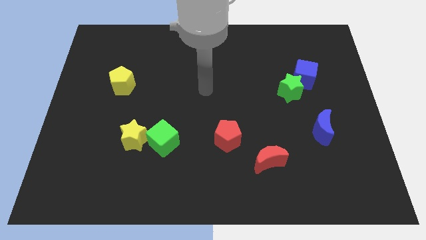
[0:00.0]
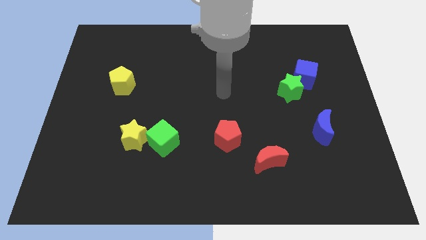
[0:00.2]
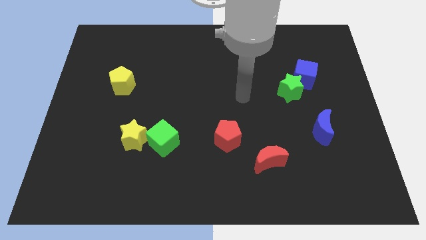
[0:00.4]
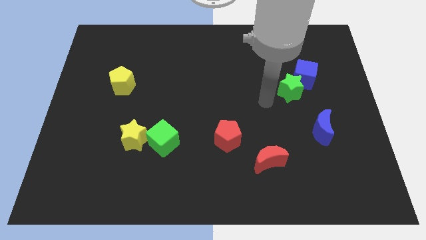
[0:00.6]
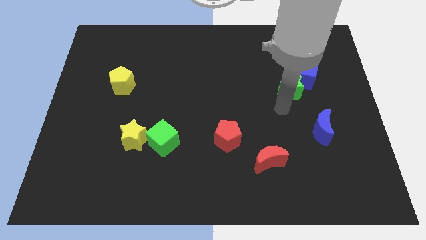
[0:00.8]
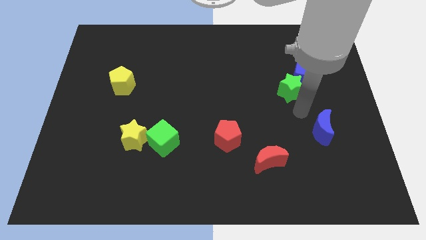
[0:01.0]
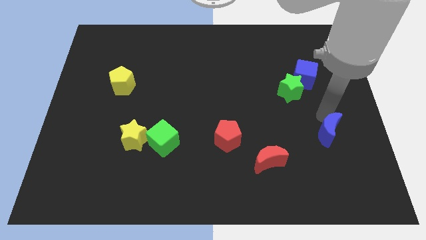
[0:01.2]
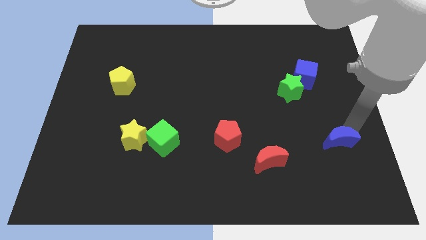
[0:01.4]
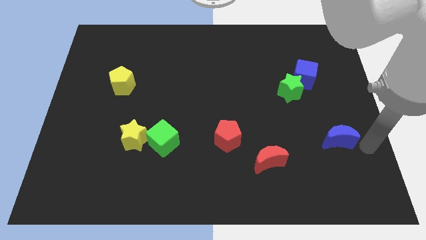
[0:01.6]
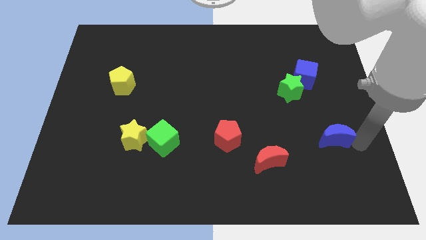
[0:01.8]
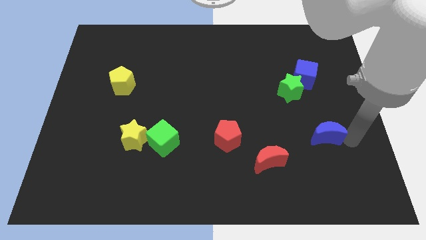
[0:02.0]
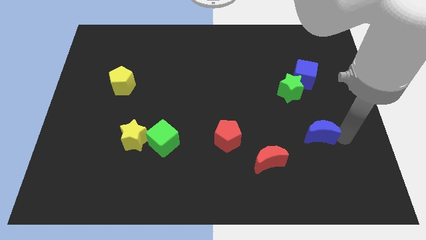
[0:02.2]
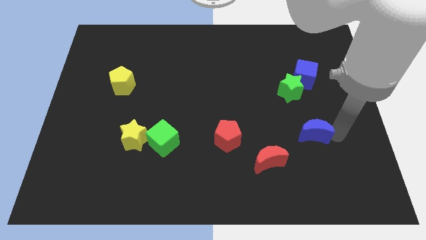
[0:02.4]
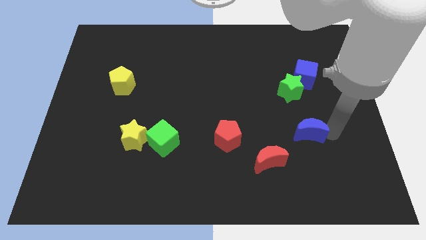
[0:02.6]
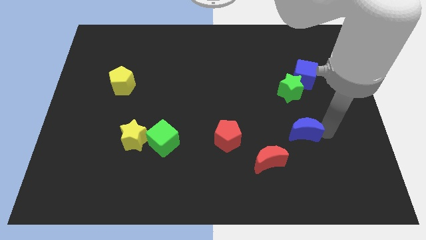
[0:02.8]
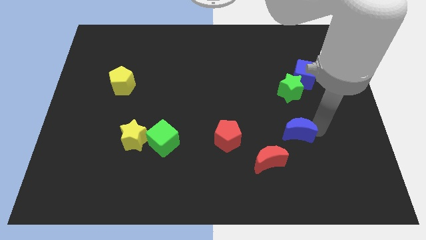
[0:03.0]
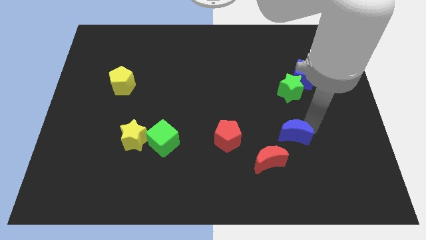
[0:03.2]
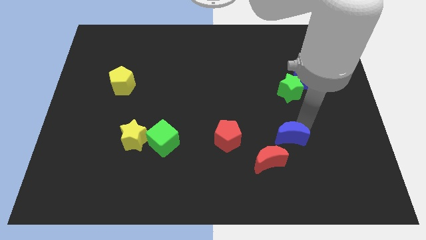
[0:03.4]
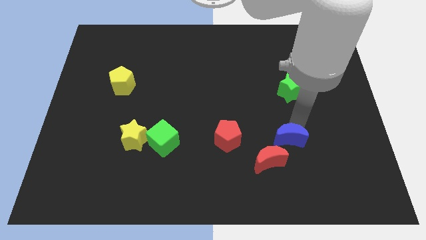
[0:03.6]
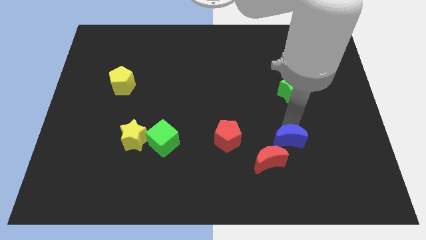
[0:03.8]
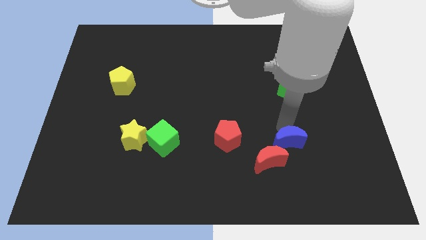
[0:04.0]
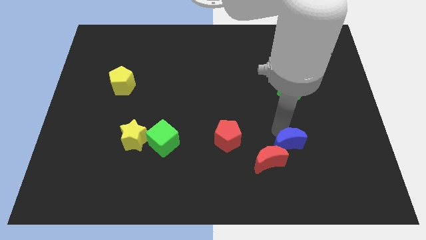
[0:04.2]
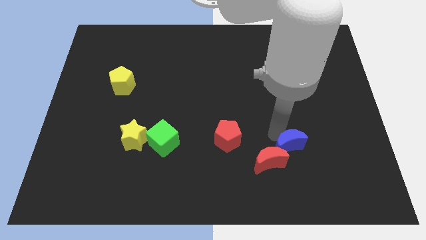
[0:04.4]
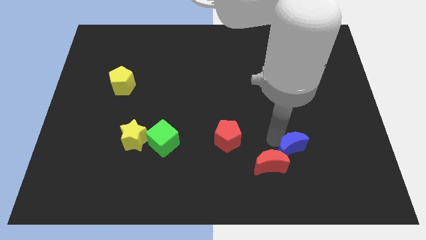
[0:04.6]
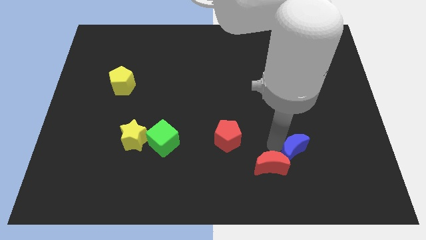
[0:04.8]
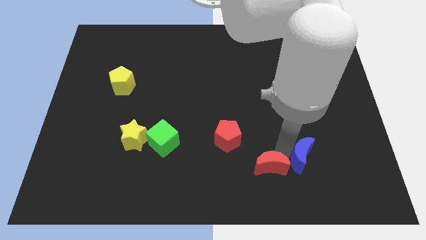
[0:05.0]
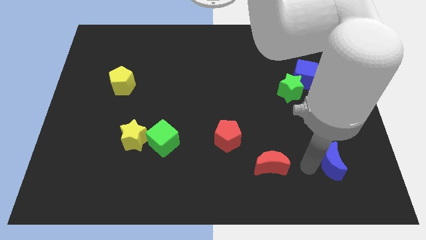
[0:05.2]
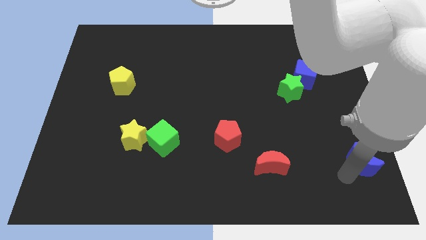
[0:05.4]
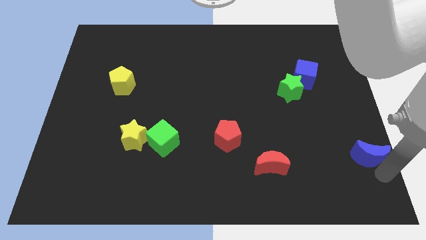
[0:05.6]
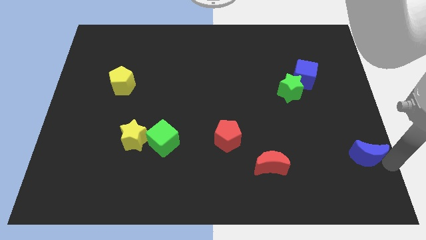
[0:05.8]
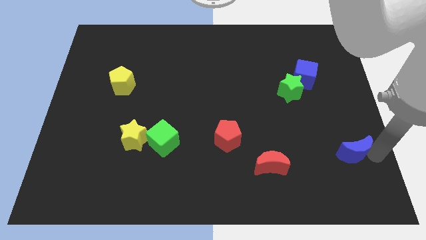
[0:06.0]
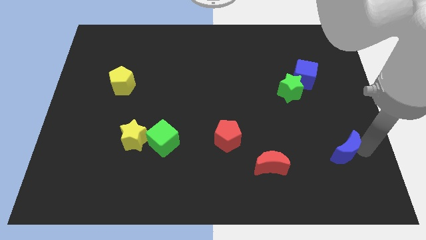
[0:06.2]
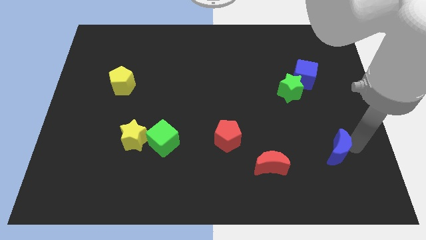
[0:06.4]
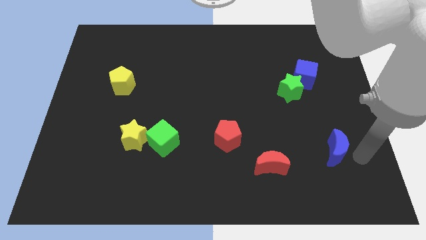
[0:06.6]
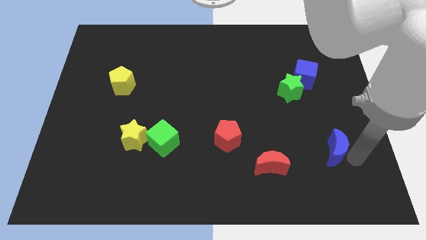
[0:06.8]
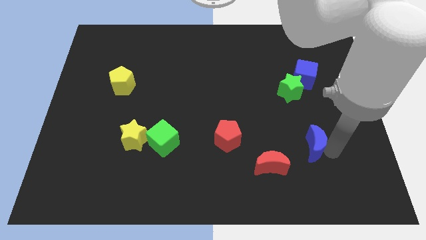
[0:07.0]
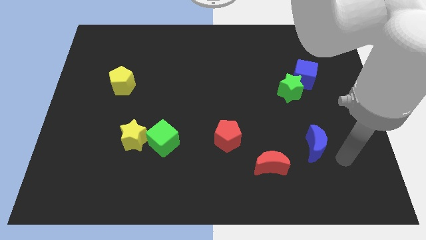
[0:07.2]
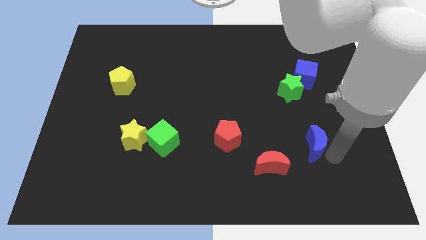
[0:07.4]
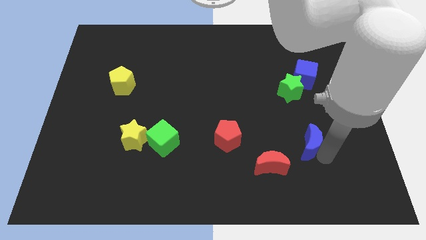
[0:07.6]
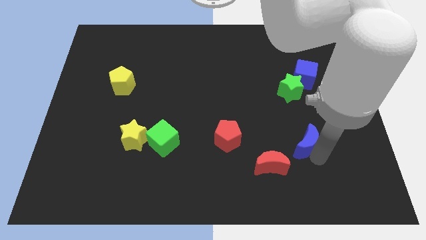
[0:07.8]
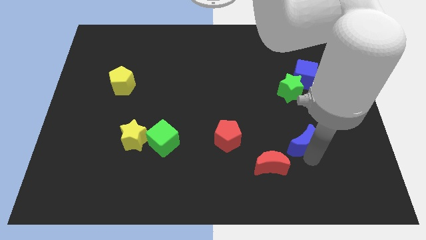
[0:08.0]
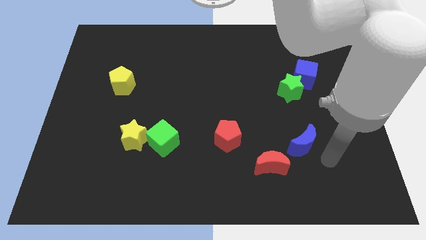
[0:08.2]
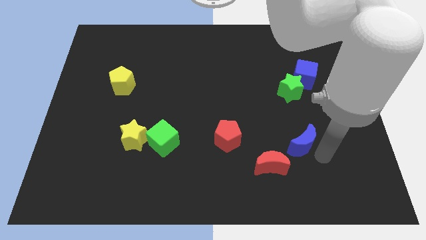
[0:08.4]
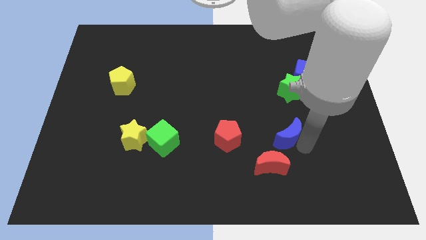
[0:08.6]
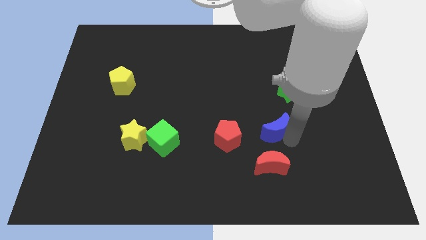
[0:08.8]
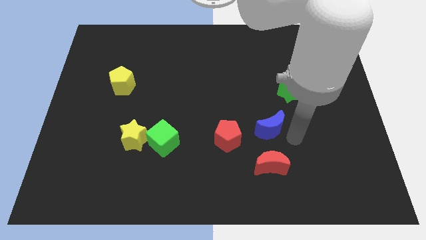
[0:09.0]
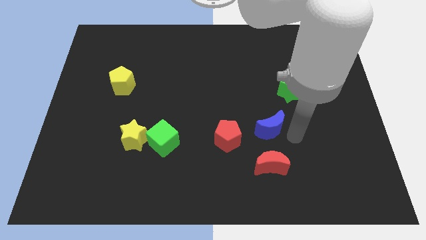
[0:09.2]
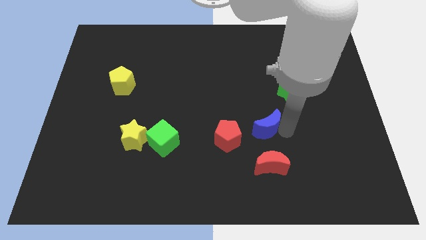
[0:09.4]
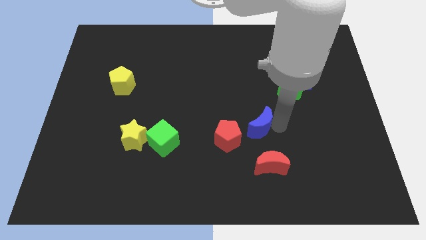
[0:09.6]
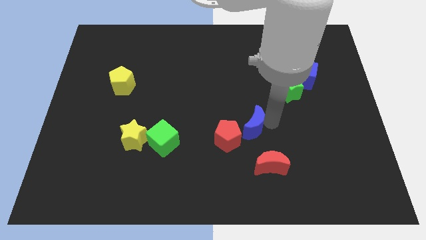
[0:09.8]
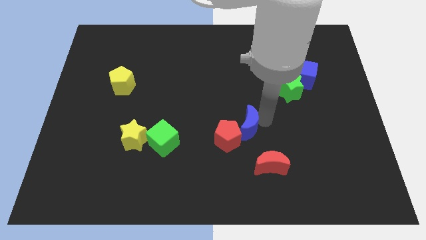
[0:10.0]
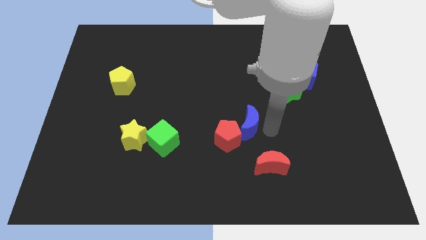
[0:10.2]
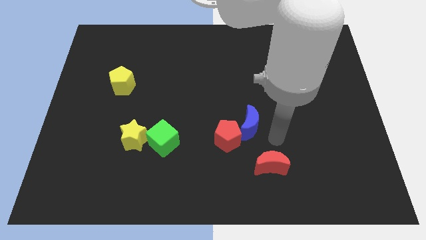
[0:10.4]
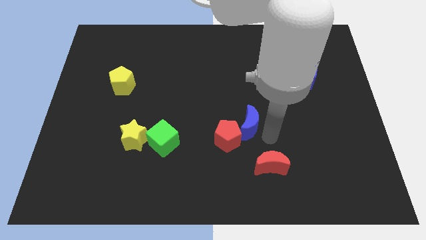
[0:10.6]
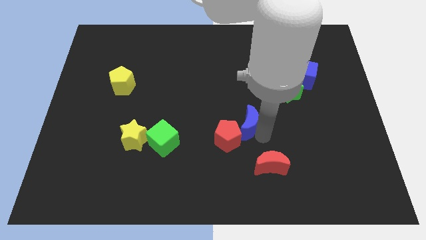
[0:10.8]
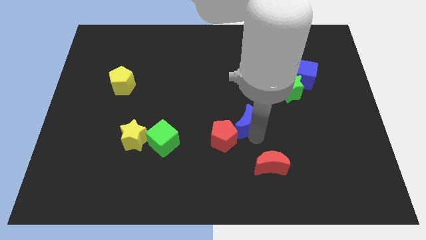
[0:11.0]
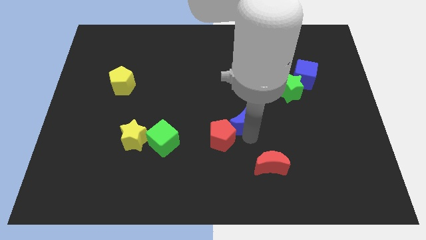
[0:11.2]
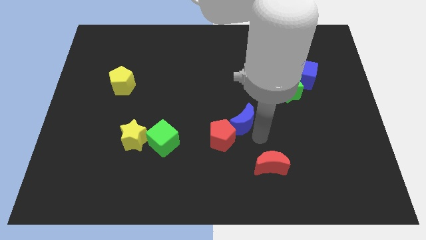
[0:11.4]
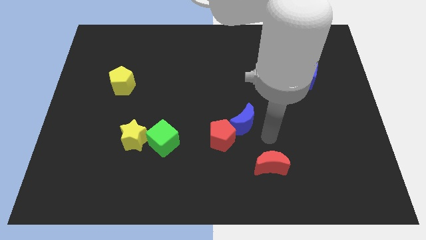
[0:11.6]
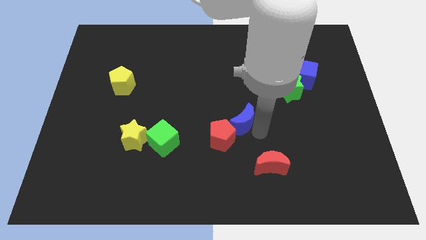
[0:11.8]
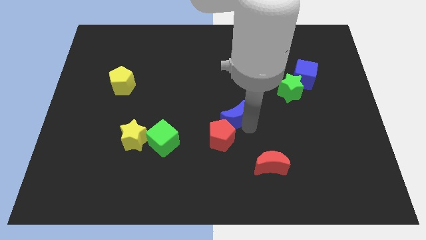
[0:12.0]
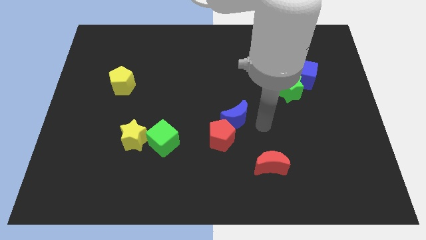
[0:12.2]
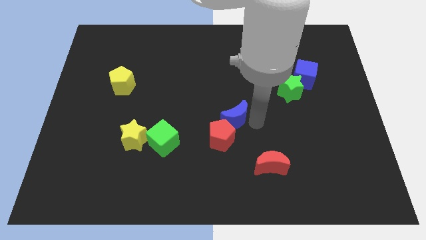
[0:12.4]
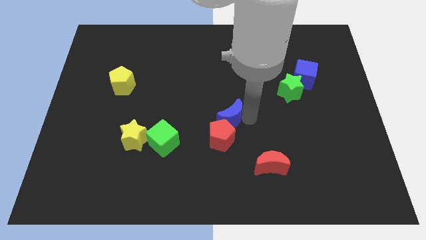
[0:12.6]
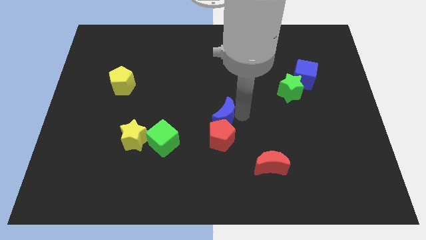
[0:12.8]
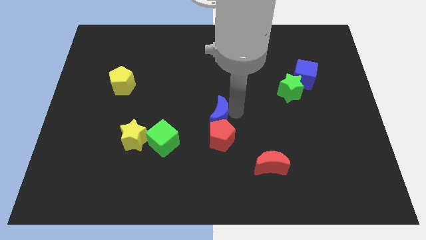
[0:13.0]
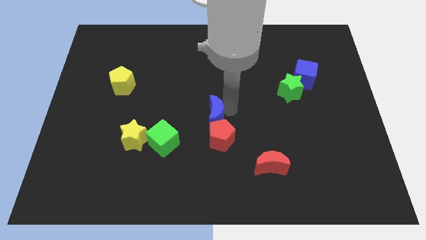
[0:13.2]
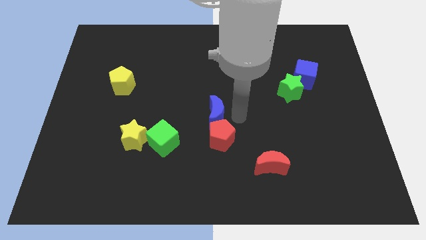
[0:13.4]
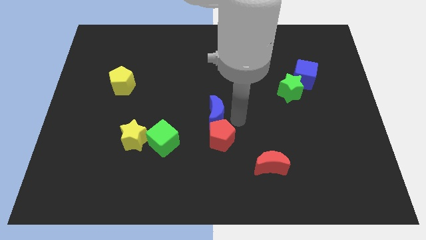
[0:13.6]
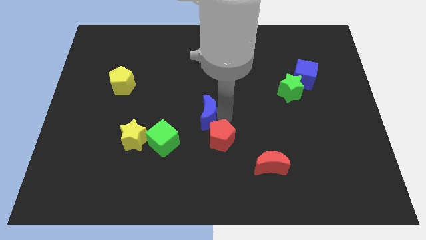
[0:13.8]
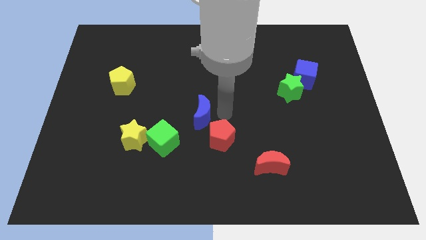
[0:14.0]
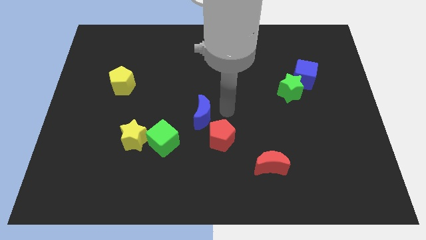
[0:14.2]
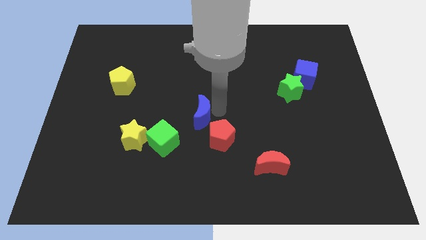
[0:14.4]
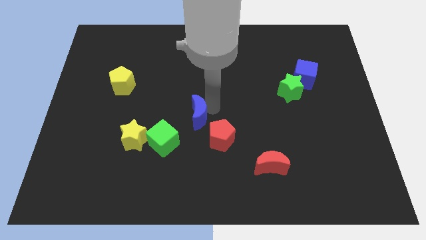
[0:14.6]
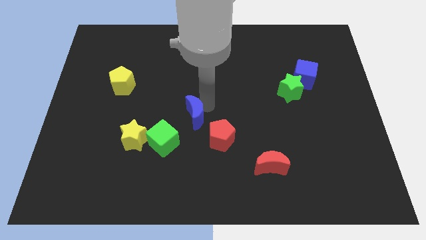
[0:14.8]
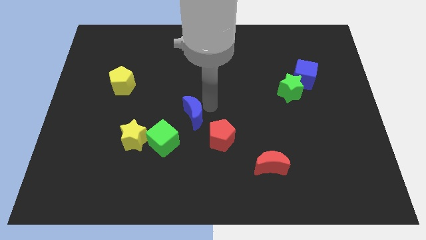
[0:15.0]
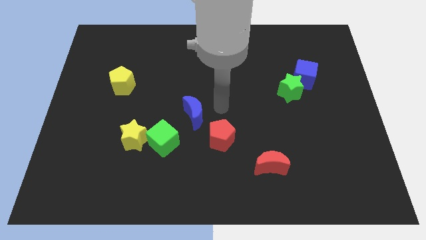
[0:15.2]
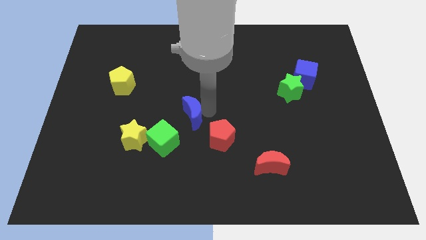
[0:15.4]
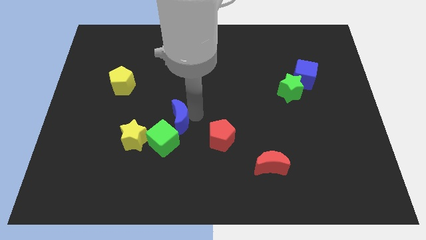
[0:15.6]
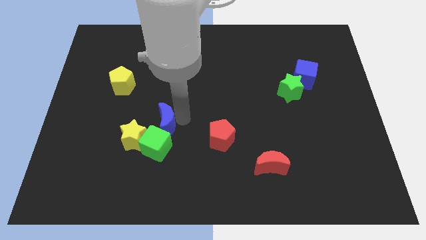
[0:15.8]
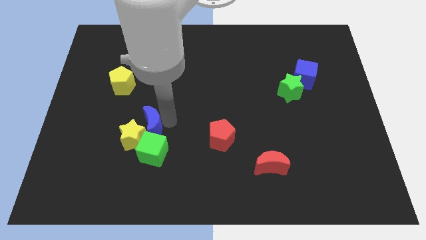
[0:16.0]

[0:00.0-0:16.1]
push the blue moon to the yellow star
